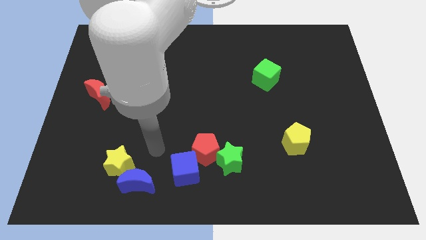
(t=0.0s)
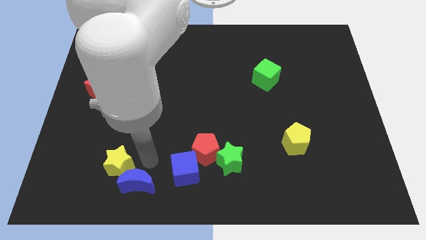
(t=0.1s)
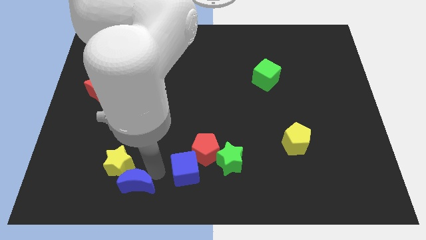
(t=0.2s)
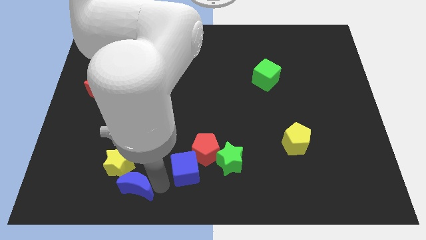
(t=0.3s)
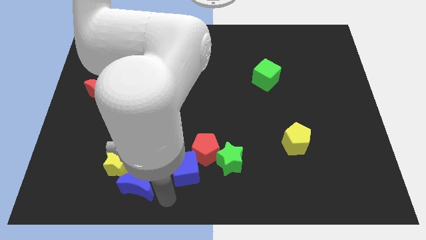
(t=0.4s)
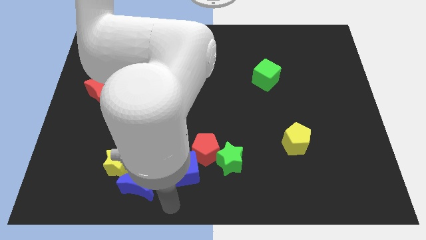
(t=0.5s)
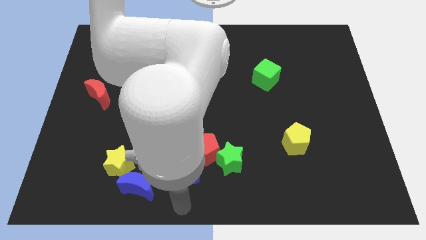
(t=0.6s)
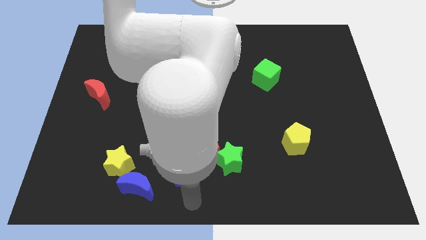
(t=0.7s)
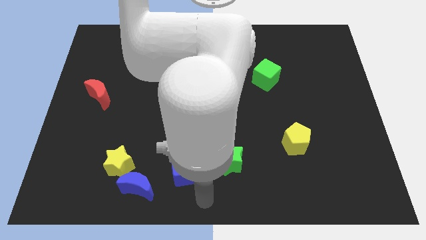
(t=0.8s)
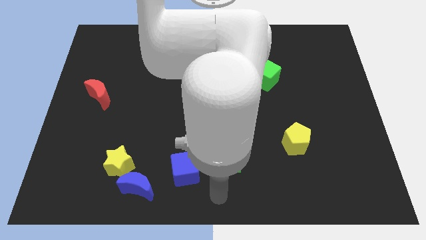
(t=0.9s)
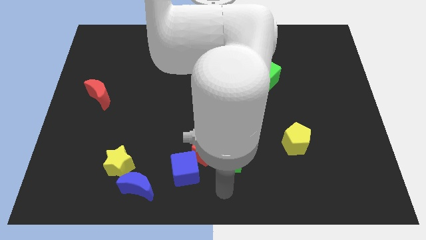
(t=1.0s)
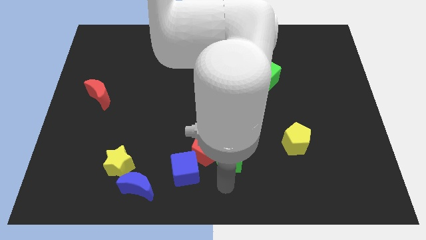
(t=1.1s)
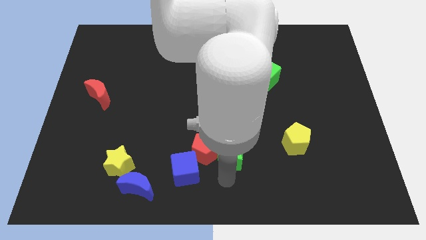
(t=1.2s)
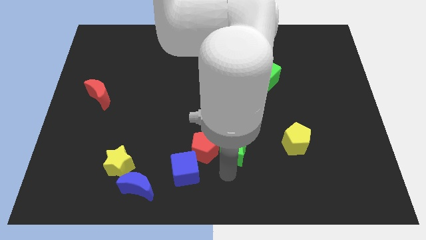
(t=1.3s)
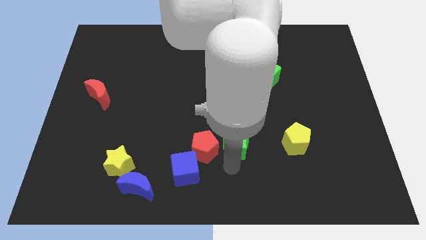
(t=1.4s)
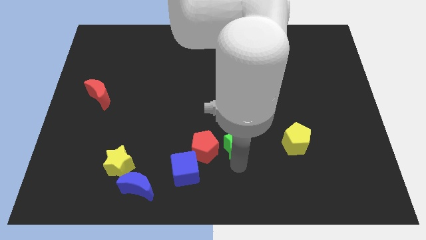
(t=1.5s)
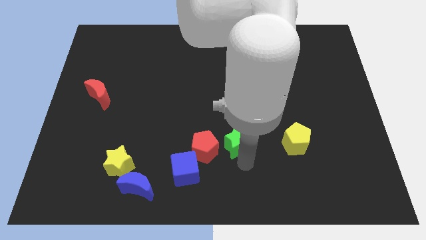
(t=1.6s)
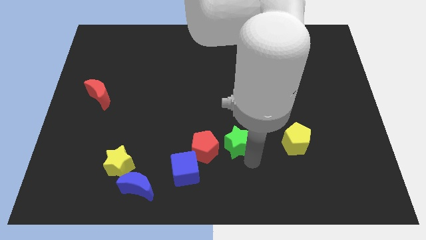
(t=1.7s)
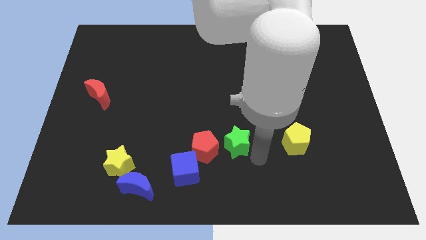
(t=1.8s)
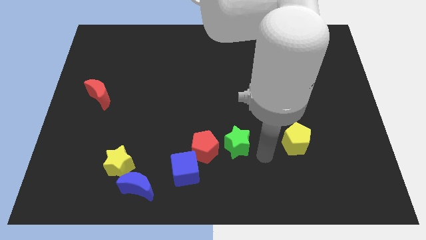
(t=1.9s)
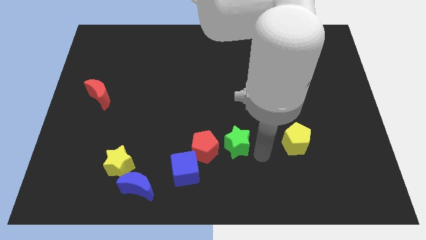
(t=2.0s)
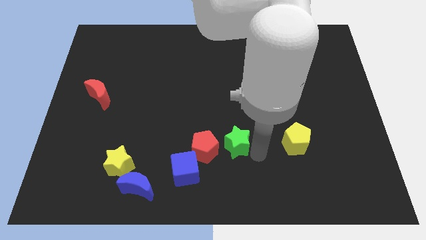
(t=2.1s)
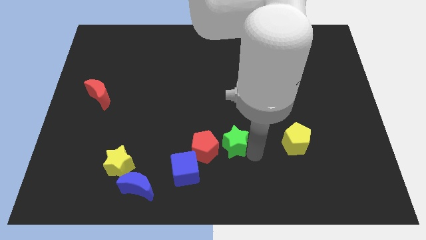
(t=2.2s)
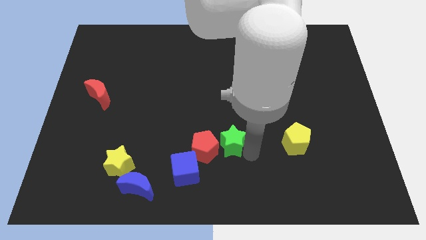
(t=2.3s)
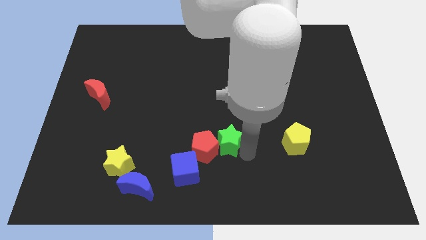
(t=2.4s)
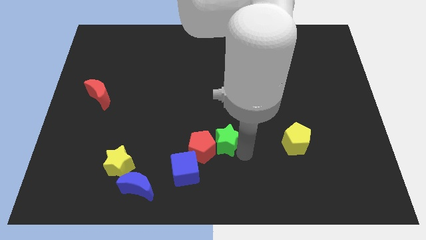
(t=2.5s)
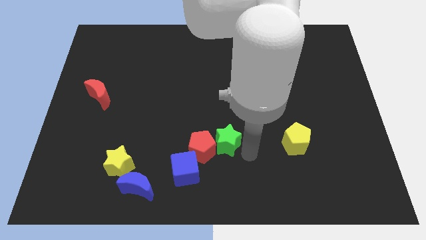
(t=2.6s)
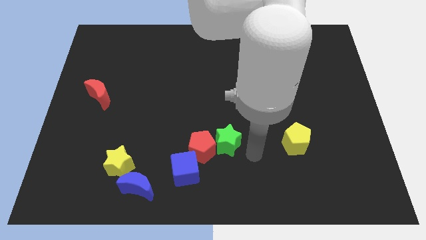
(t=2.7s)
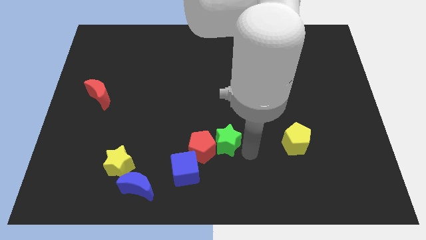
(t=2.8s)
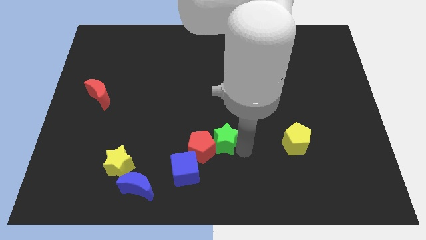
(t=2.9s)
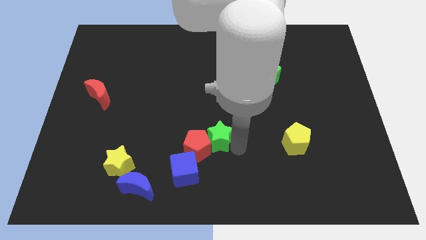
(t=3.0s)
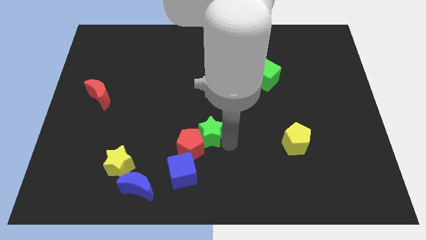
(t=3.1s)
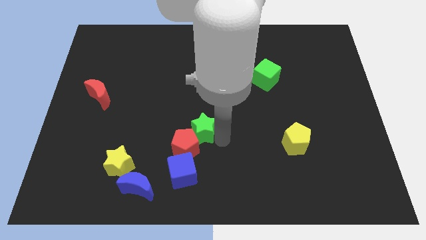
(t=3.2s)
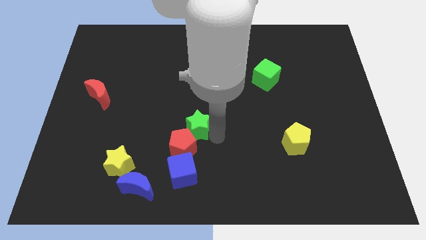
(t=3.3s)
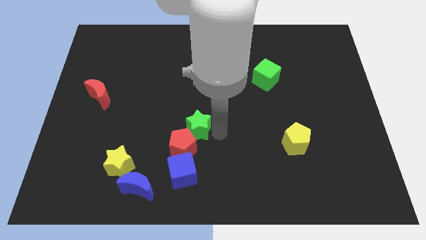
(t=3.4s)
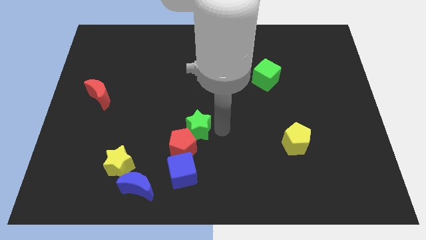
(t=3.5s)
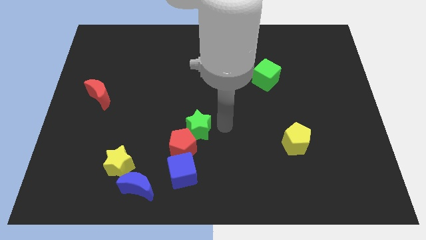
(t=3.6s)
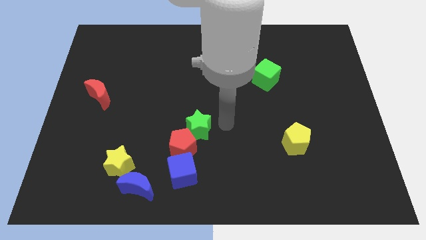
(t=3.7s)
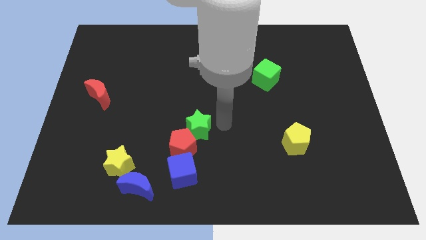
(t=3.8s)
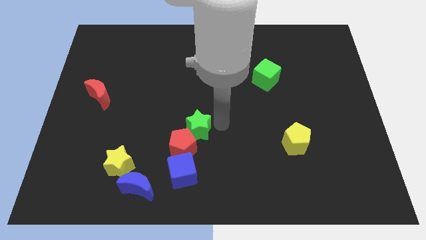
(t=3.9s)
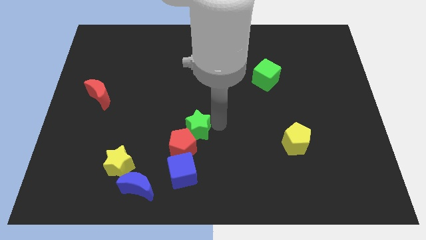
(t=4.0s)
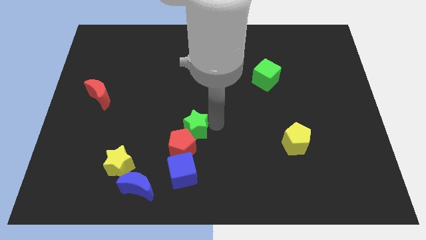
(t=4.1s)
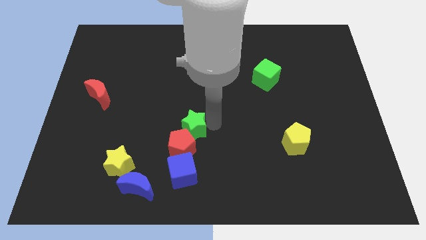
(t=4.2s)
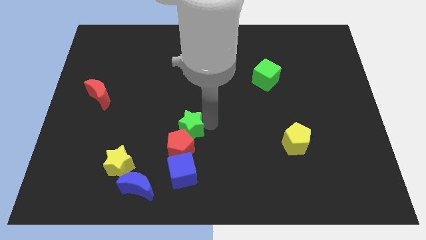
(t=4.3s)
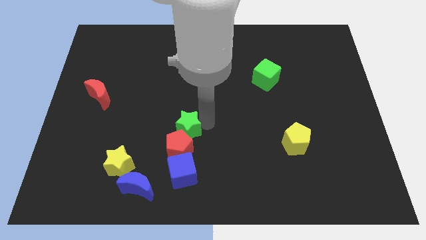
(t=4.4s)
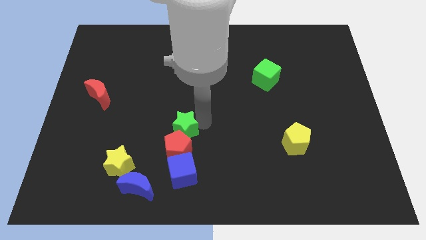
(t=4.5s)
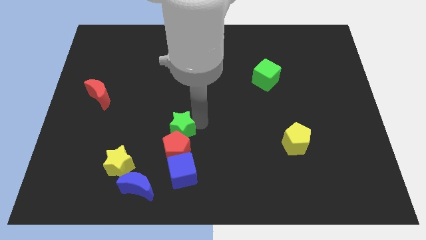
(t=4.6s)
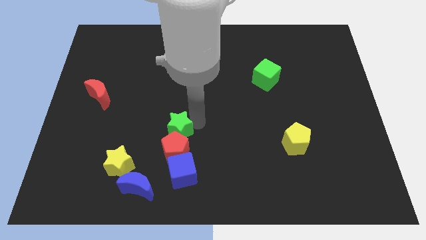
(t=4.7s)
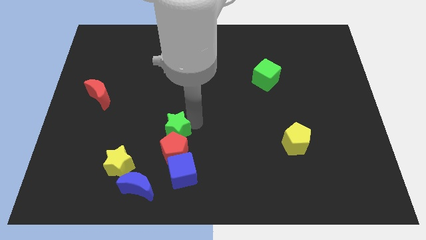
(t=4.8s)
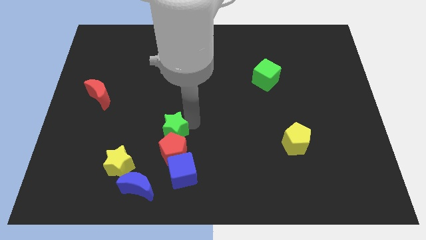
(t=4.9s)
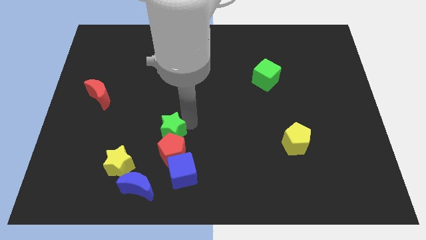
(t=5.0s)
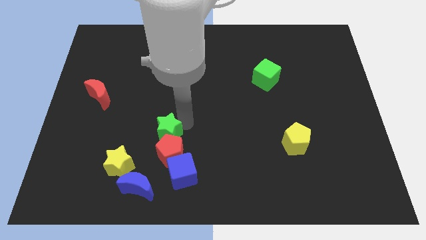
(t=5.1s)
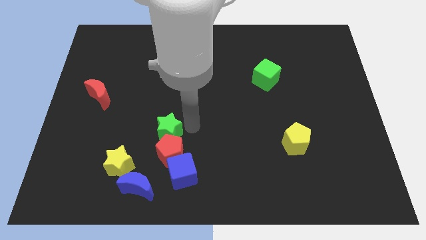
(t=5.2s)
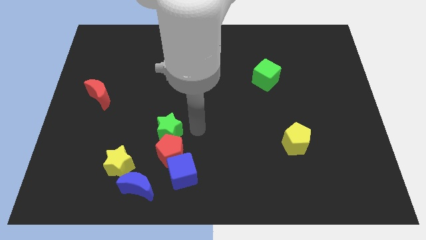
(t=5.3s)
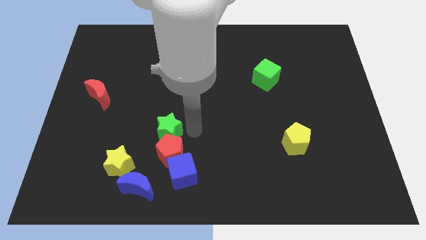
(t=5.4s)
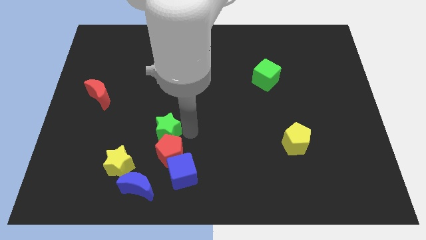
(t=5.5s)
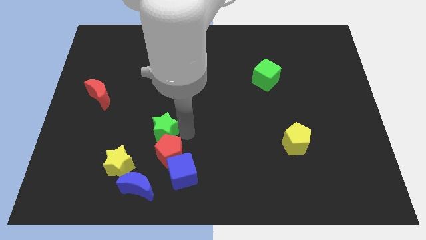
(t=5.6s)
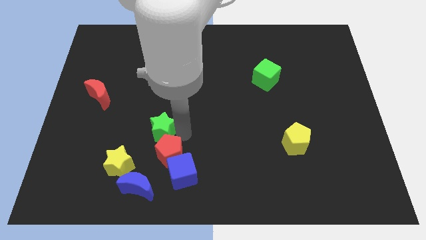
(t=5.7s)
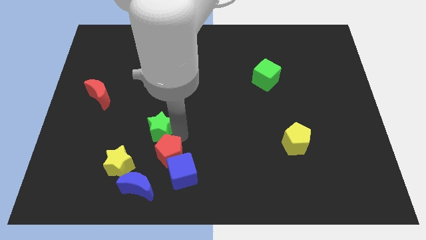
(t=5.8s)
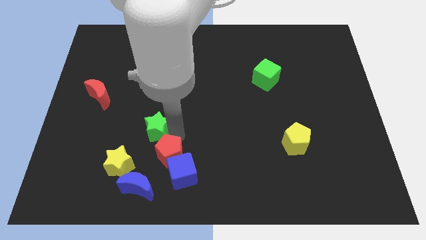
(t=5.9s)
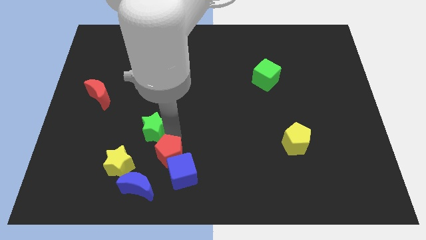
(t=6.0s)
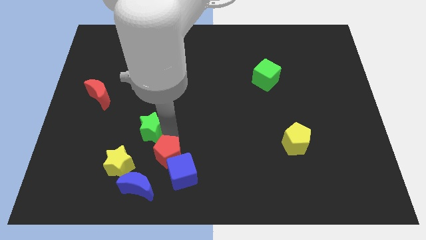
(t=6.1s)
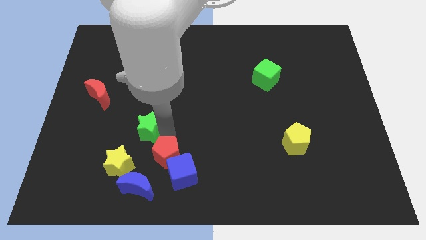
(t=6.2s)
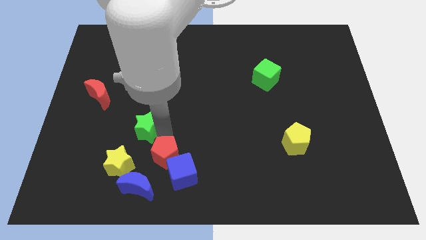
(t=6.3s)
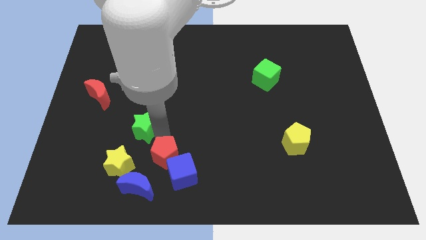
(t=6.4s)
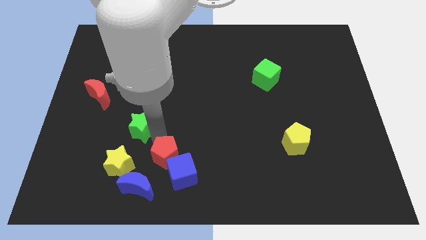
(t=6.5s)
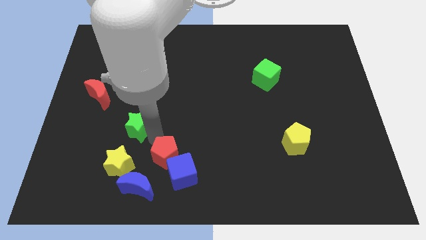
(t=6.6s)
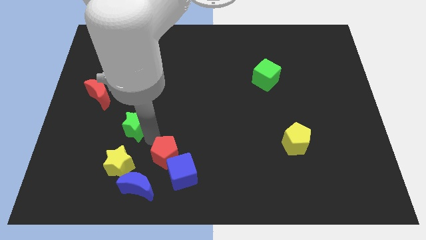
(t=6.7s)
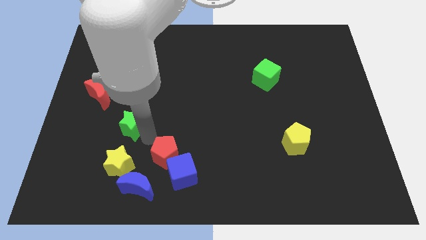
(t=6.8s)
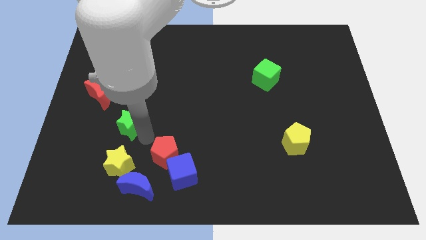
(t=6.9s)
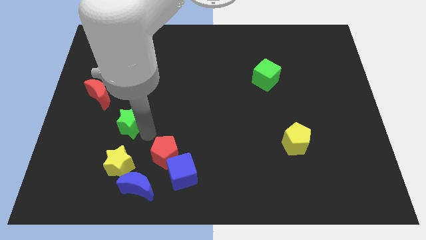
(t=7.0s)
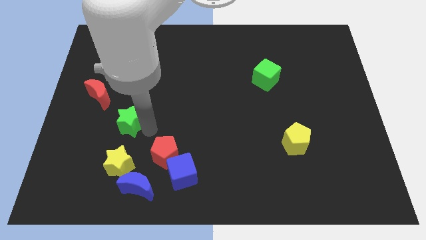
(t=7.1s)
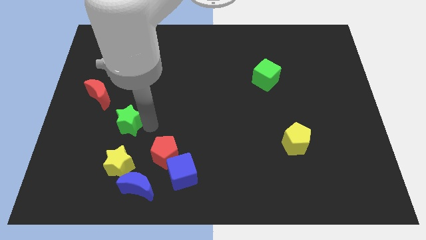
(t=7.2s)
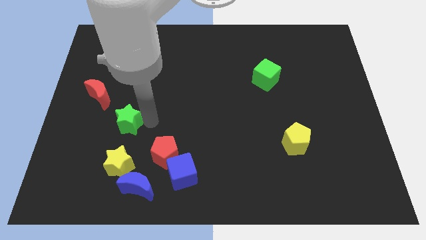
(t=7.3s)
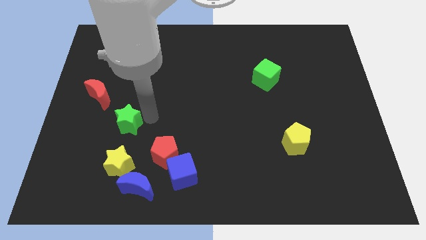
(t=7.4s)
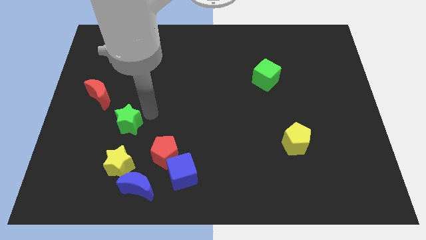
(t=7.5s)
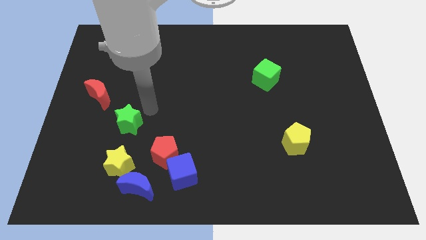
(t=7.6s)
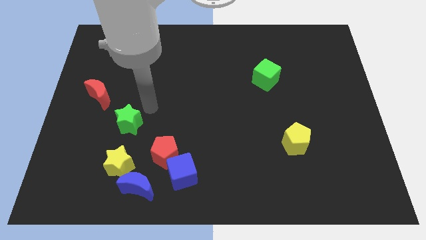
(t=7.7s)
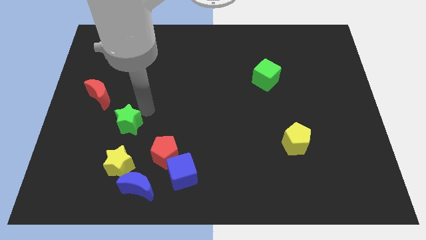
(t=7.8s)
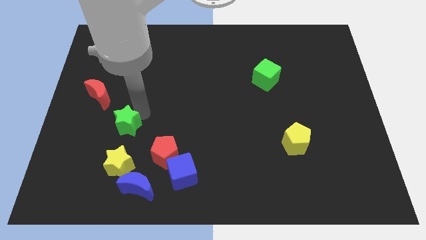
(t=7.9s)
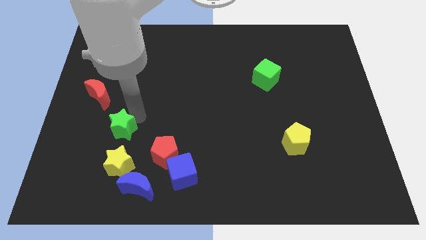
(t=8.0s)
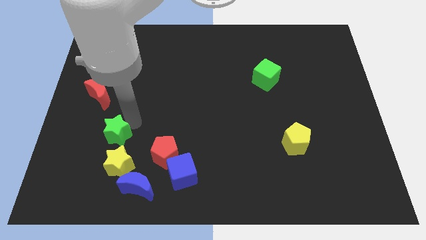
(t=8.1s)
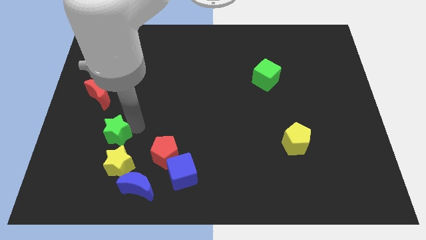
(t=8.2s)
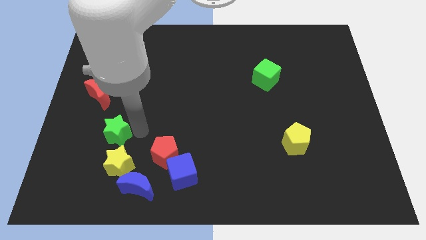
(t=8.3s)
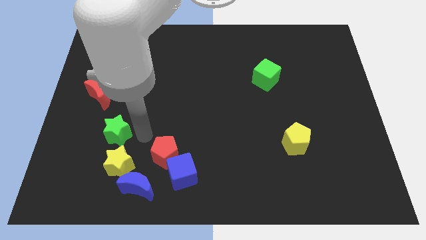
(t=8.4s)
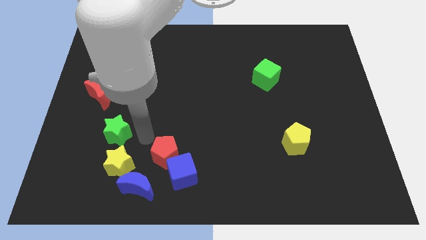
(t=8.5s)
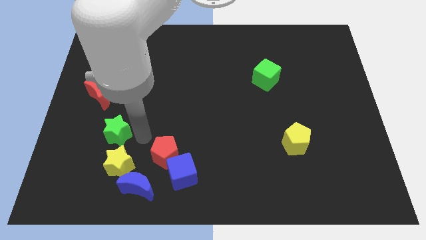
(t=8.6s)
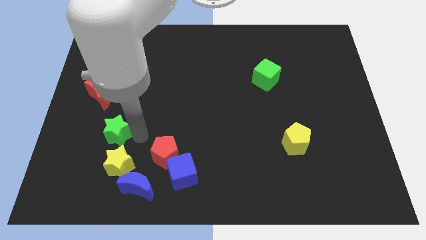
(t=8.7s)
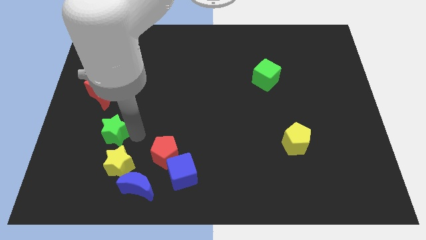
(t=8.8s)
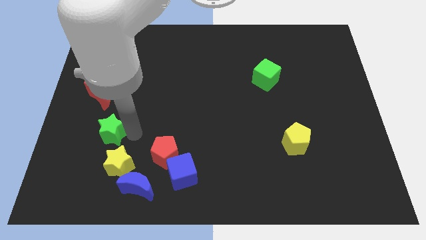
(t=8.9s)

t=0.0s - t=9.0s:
slide the green star below the red moon
